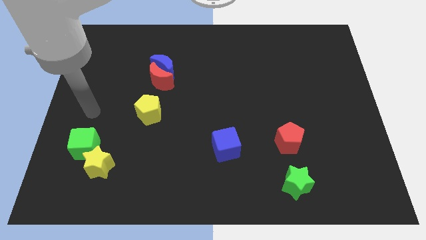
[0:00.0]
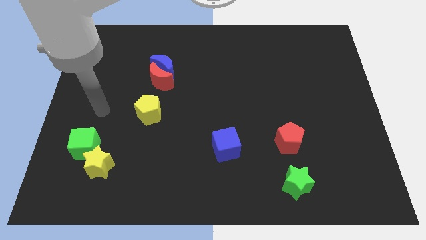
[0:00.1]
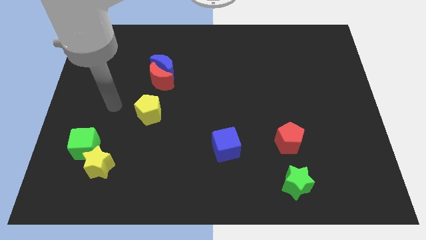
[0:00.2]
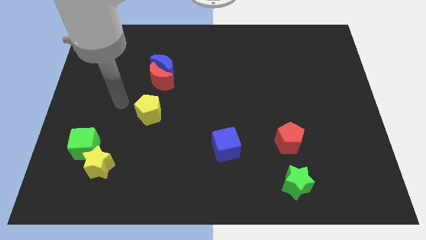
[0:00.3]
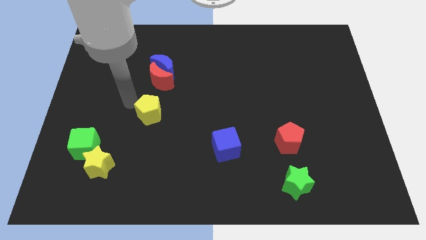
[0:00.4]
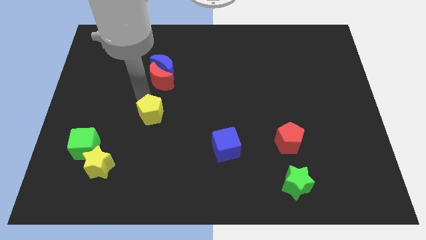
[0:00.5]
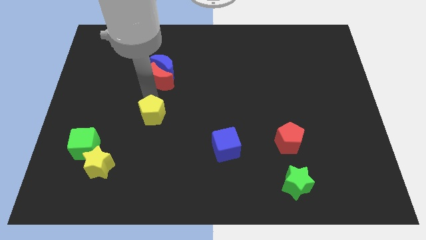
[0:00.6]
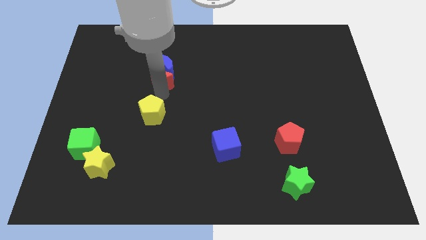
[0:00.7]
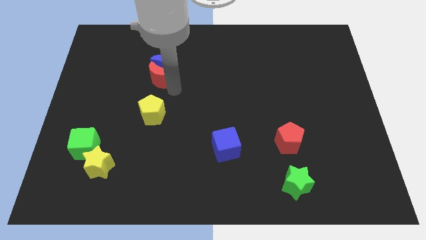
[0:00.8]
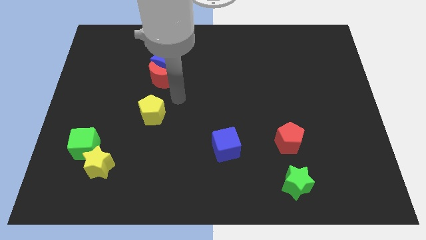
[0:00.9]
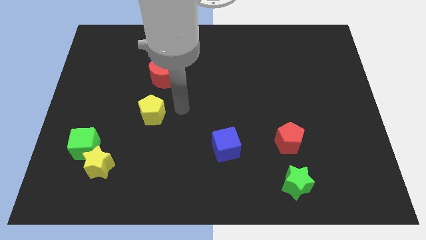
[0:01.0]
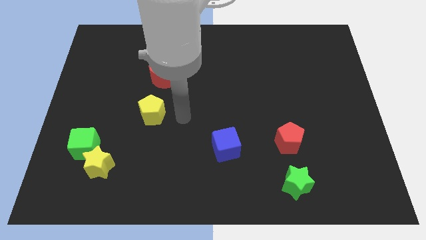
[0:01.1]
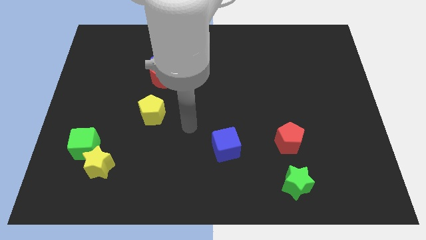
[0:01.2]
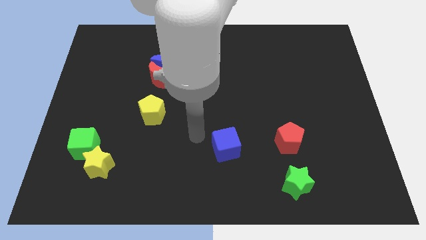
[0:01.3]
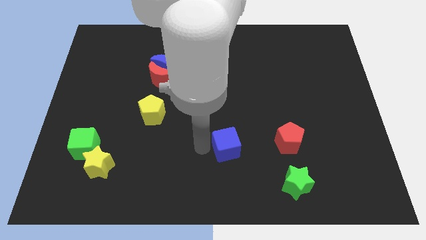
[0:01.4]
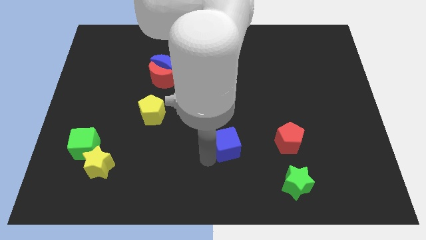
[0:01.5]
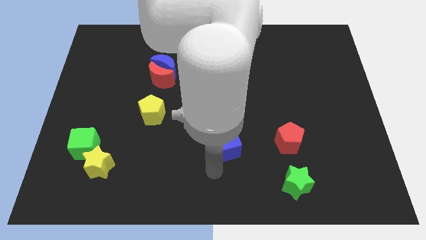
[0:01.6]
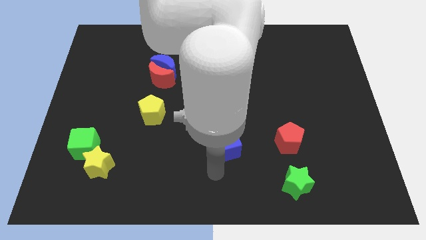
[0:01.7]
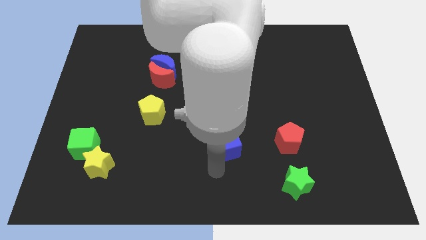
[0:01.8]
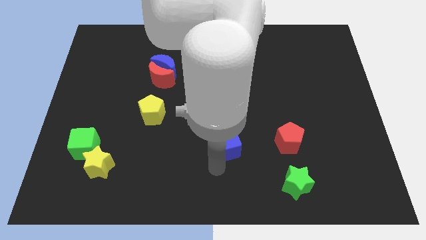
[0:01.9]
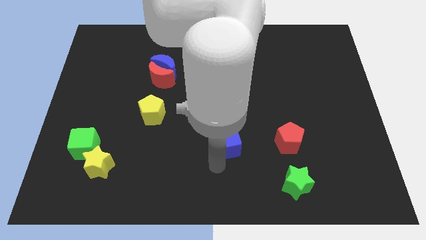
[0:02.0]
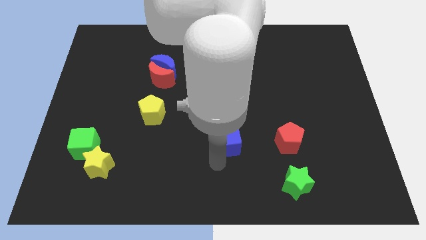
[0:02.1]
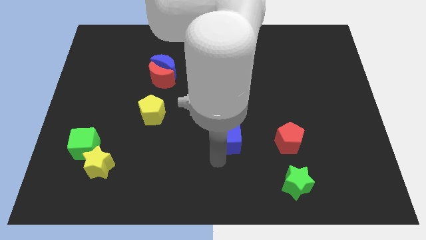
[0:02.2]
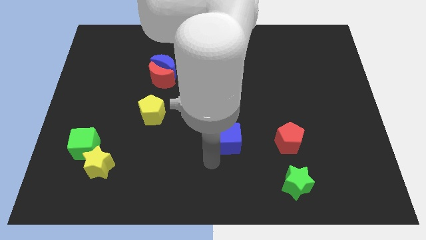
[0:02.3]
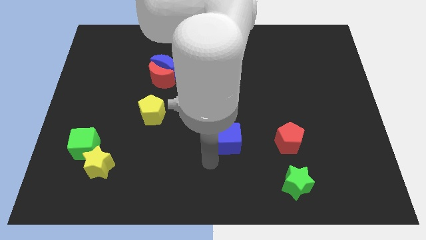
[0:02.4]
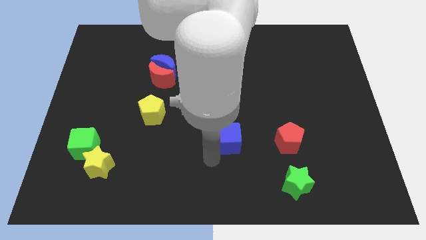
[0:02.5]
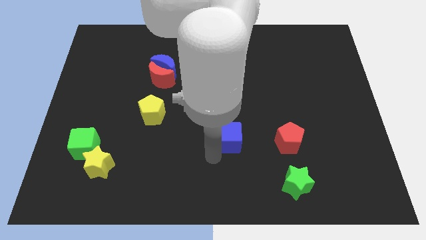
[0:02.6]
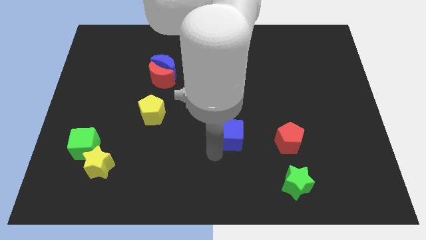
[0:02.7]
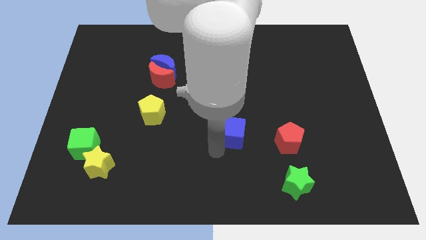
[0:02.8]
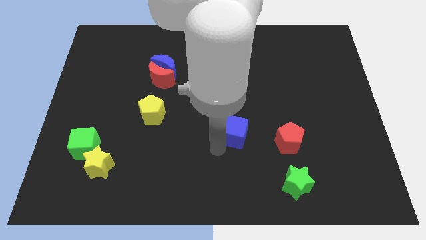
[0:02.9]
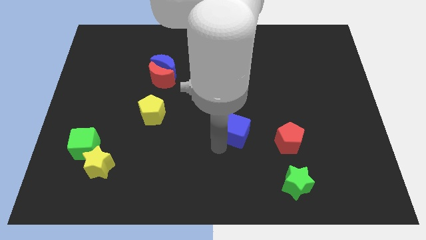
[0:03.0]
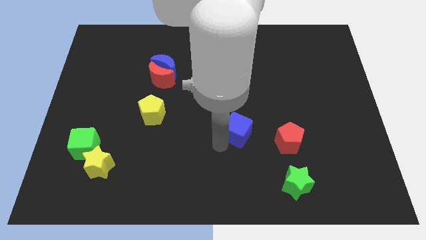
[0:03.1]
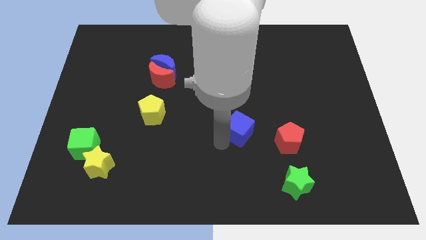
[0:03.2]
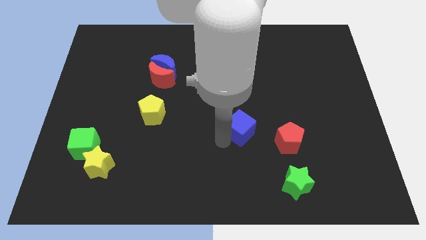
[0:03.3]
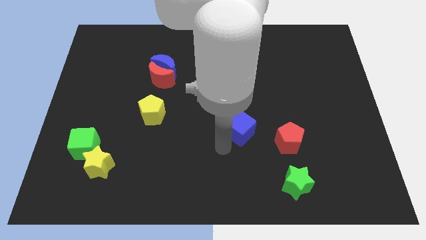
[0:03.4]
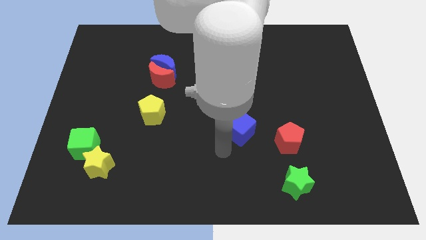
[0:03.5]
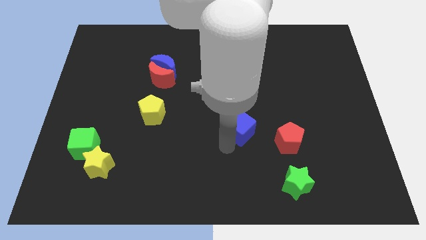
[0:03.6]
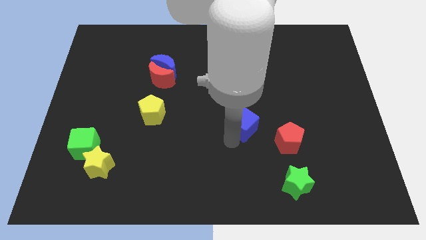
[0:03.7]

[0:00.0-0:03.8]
push the blue cube a bit up and right

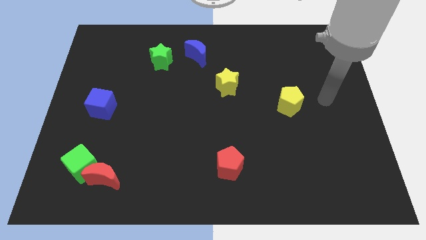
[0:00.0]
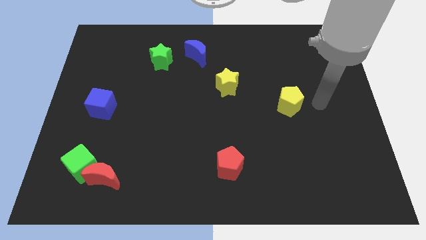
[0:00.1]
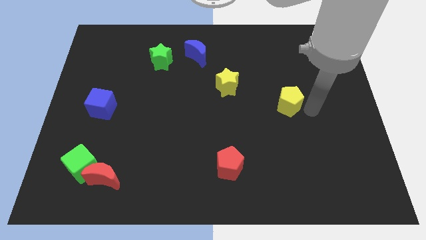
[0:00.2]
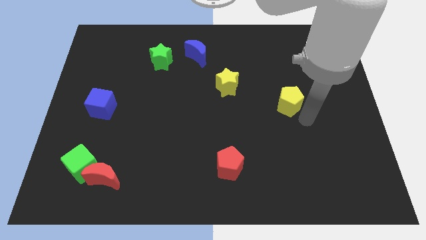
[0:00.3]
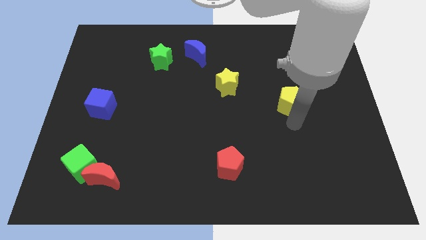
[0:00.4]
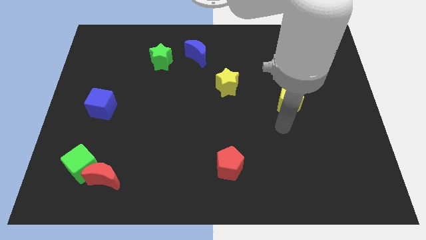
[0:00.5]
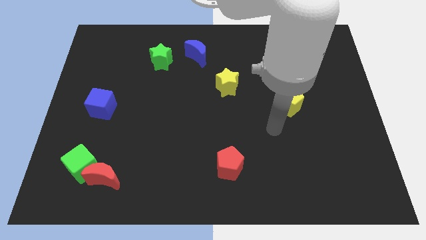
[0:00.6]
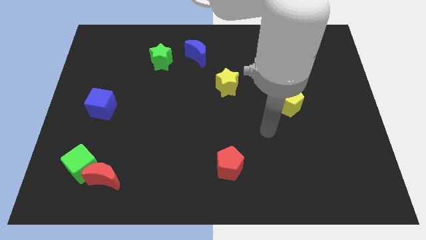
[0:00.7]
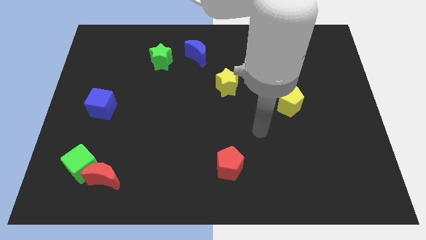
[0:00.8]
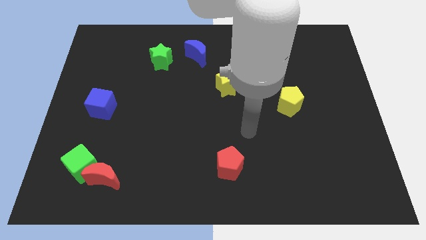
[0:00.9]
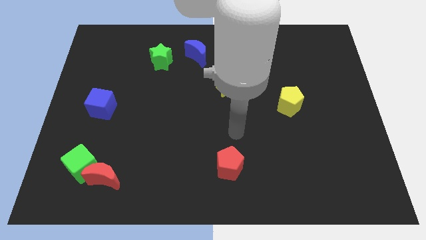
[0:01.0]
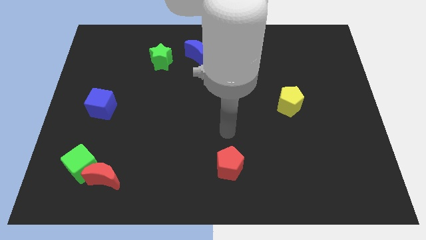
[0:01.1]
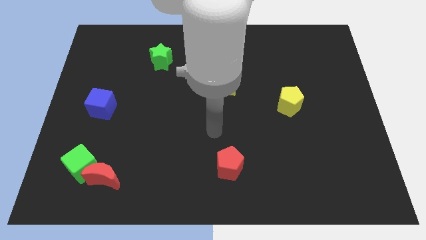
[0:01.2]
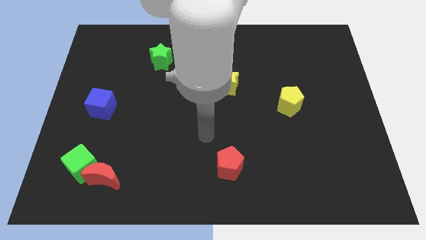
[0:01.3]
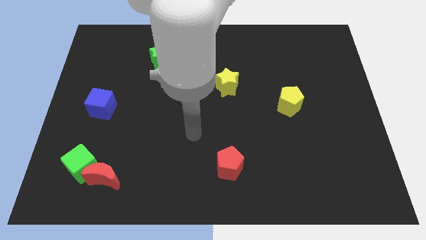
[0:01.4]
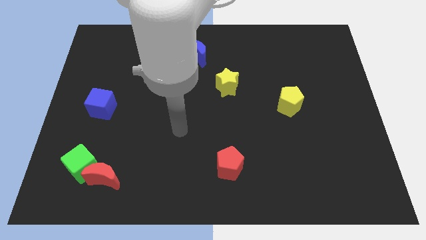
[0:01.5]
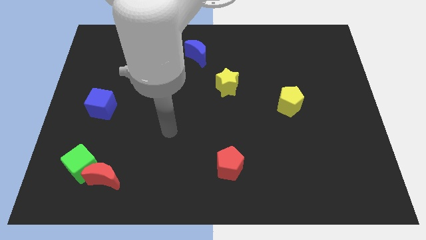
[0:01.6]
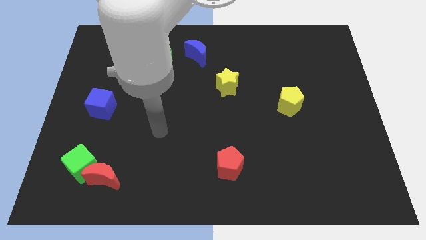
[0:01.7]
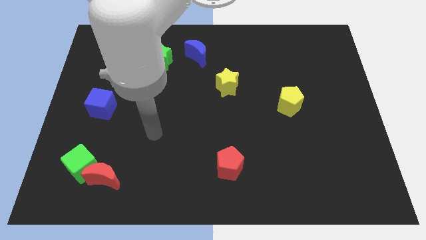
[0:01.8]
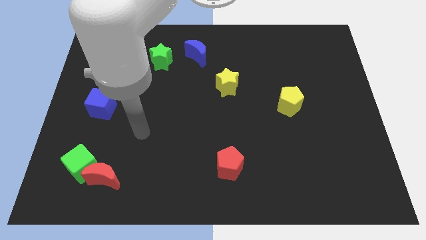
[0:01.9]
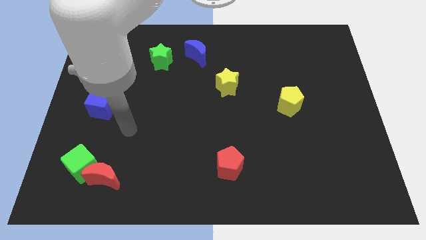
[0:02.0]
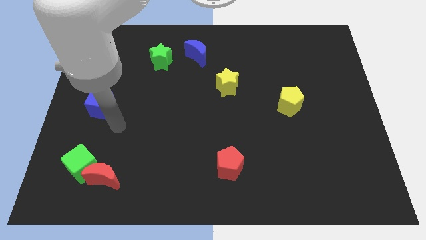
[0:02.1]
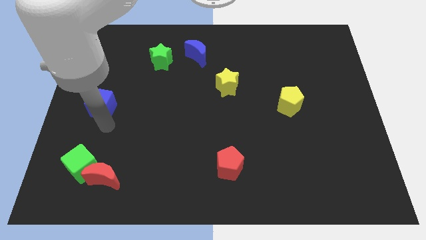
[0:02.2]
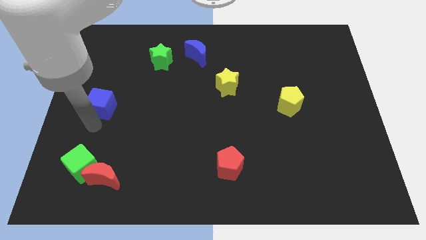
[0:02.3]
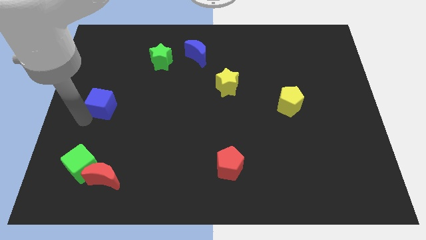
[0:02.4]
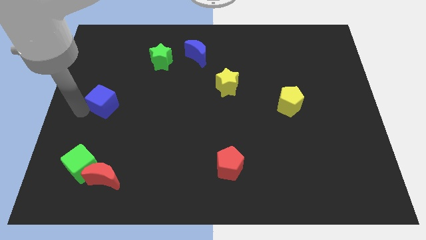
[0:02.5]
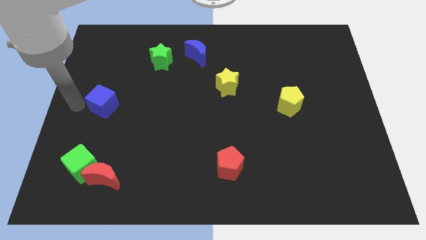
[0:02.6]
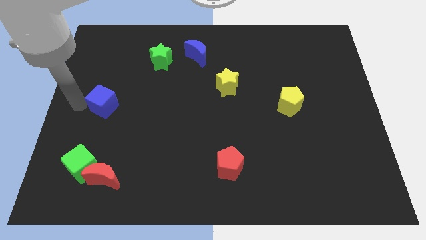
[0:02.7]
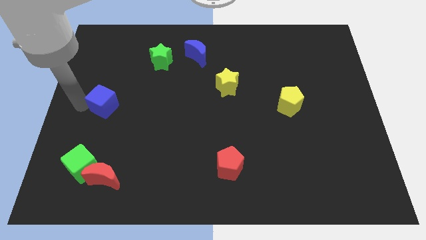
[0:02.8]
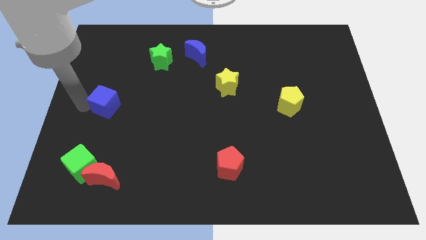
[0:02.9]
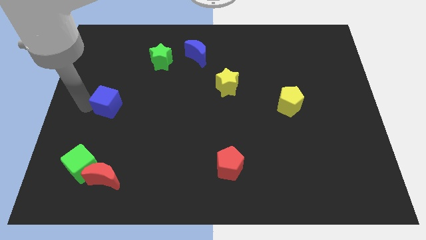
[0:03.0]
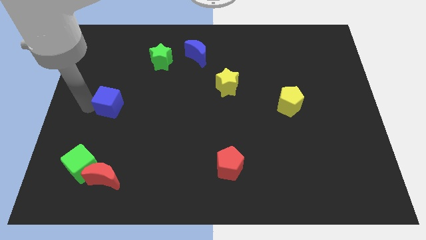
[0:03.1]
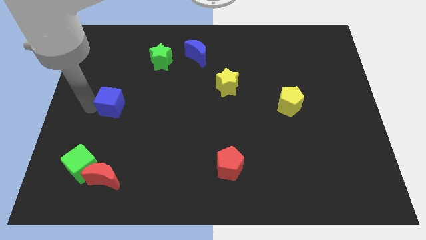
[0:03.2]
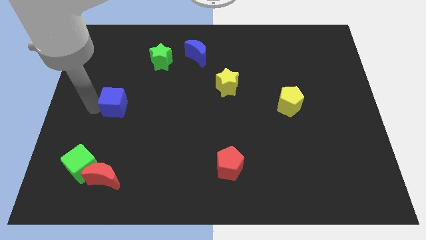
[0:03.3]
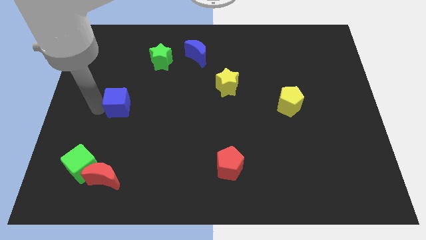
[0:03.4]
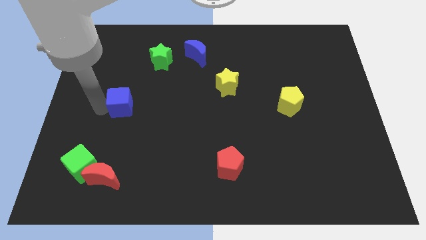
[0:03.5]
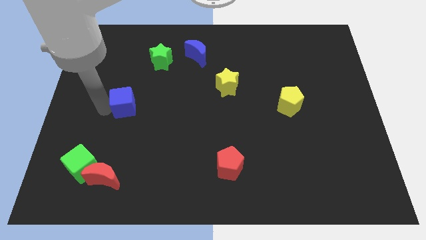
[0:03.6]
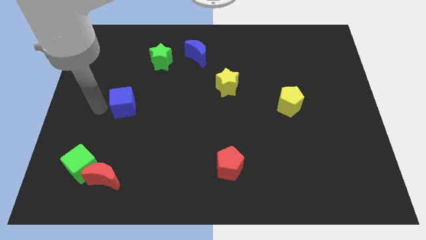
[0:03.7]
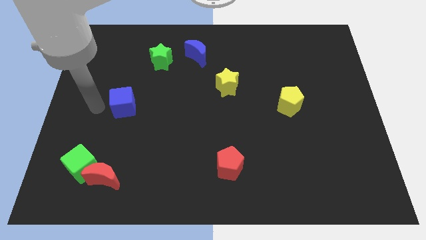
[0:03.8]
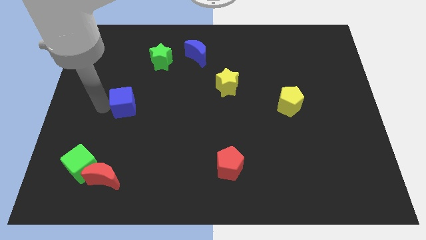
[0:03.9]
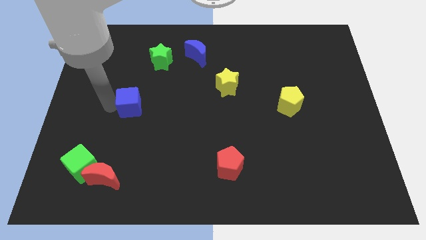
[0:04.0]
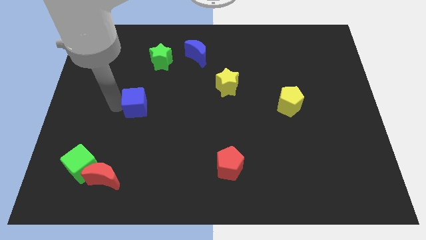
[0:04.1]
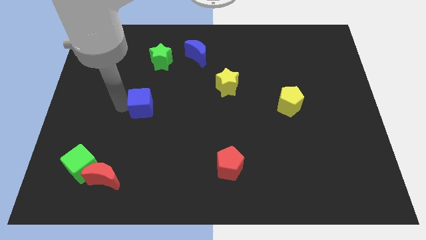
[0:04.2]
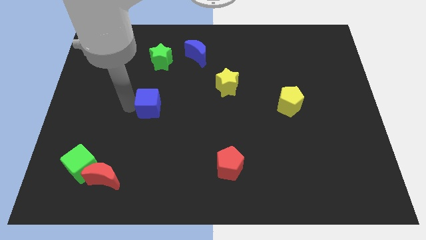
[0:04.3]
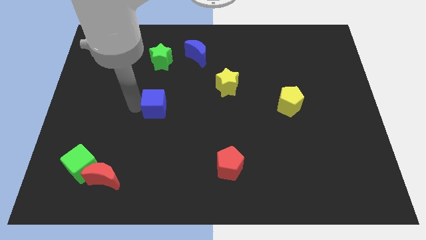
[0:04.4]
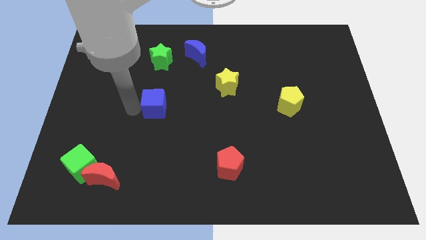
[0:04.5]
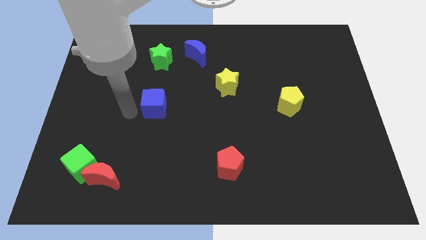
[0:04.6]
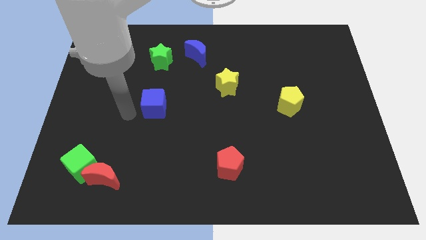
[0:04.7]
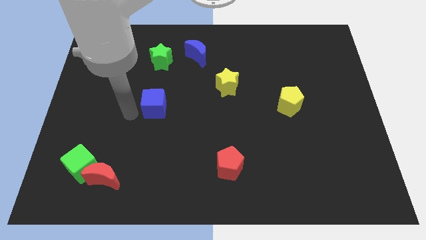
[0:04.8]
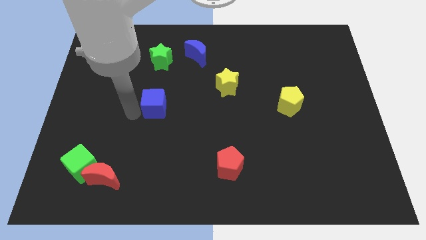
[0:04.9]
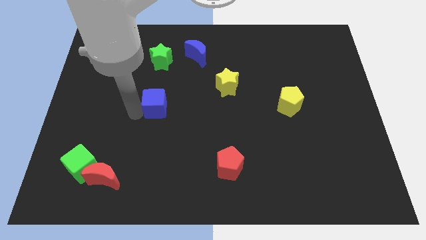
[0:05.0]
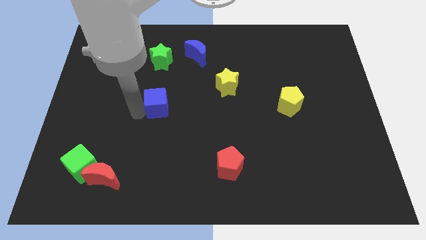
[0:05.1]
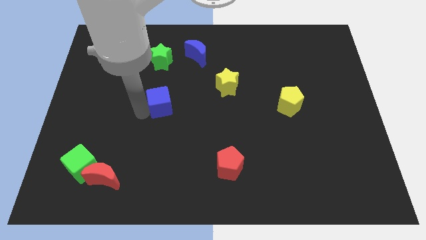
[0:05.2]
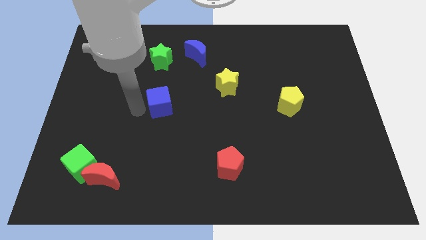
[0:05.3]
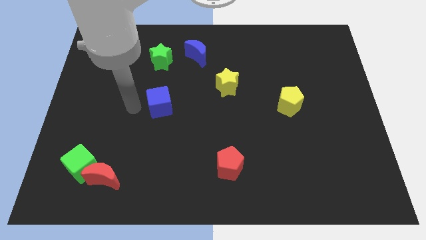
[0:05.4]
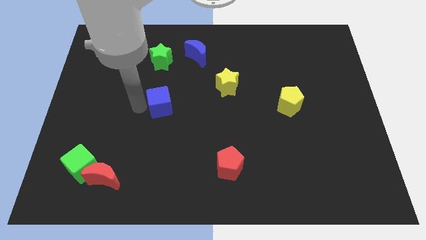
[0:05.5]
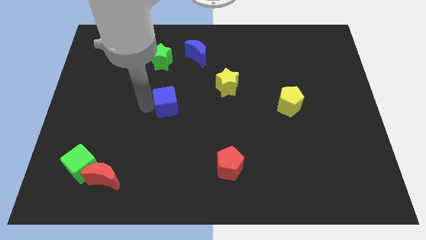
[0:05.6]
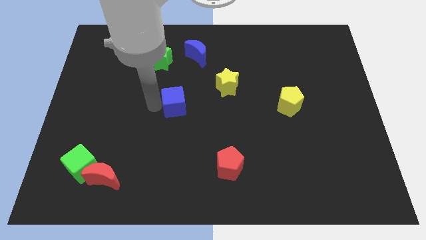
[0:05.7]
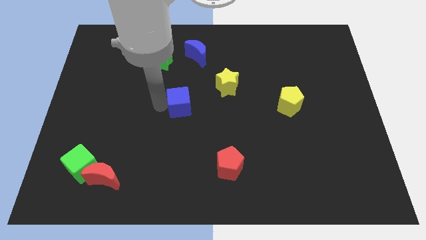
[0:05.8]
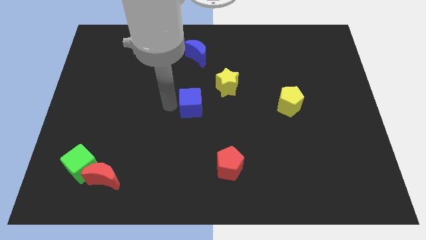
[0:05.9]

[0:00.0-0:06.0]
slide the blue cube right
